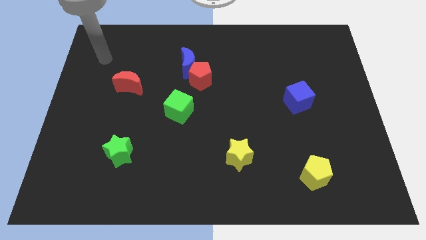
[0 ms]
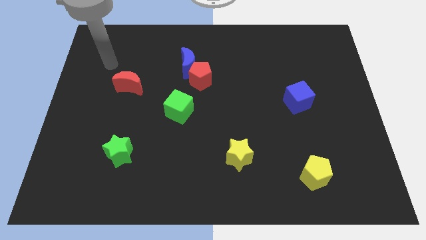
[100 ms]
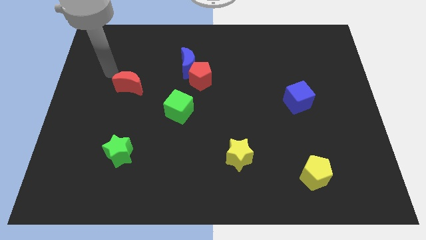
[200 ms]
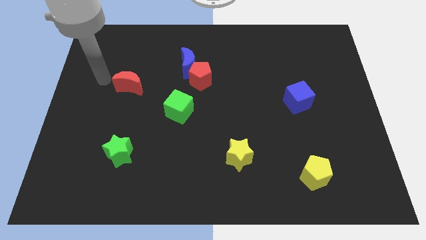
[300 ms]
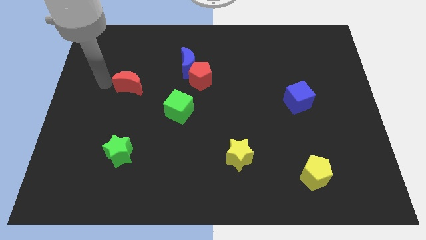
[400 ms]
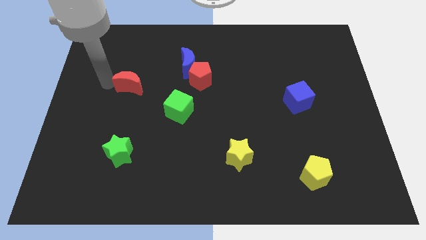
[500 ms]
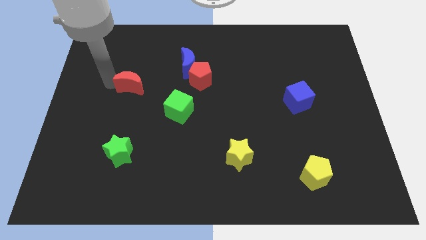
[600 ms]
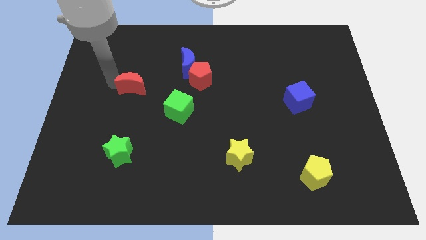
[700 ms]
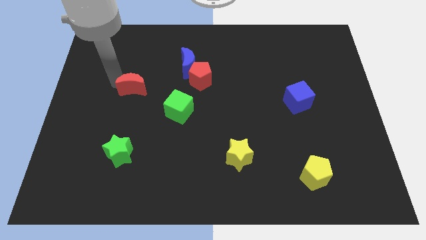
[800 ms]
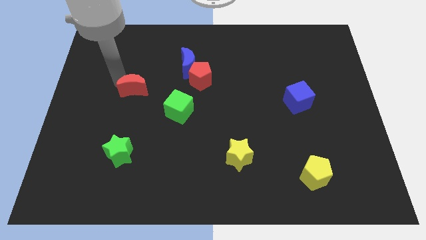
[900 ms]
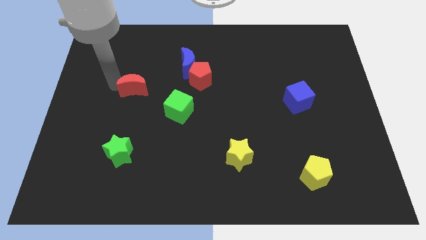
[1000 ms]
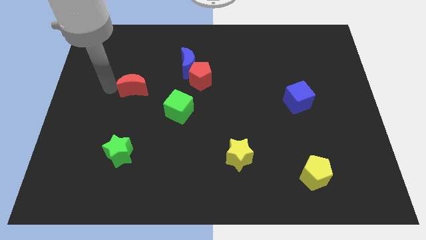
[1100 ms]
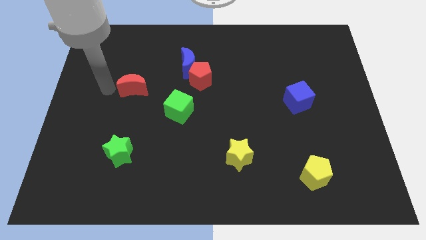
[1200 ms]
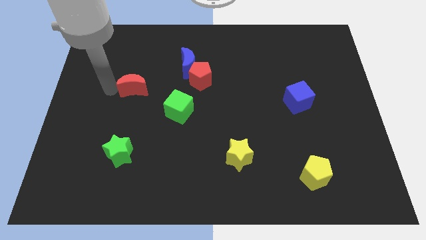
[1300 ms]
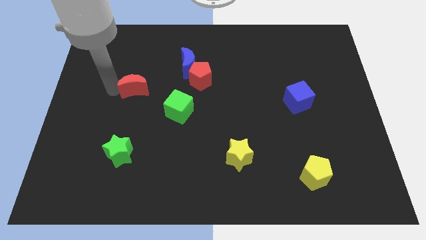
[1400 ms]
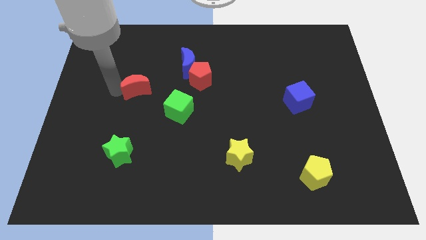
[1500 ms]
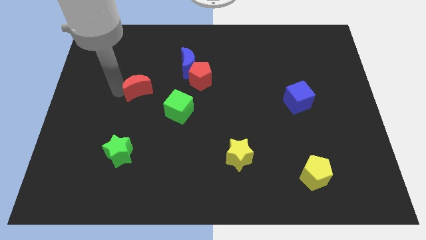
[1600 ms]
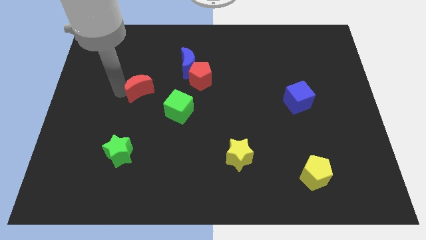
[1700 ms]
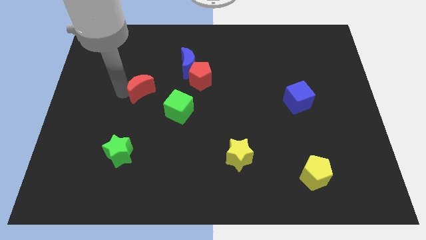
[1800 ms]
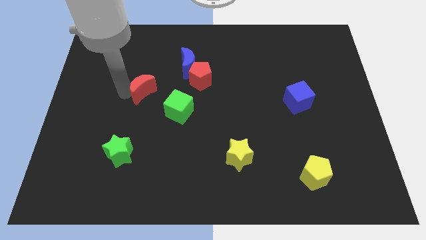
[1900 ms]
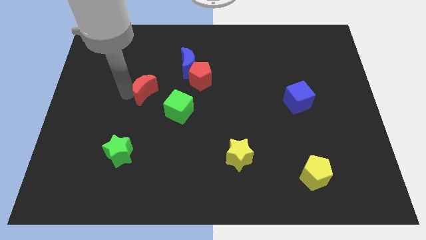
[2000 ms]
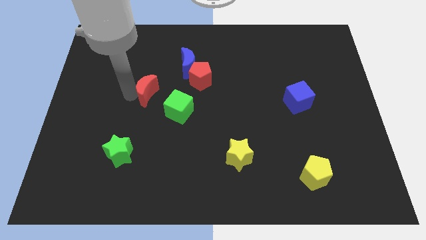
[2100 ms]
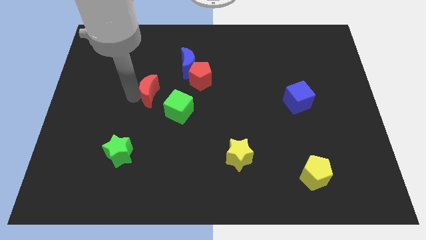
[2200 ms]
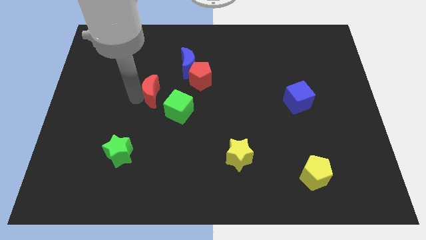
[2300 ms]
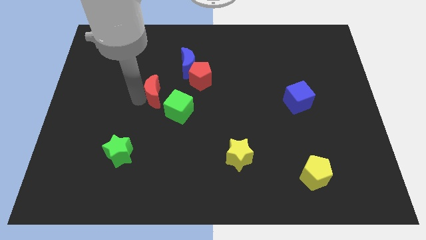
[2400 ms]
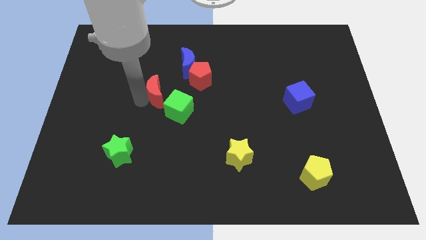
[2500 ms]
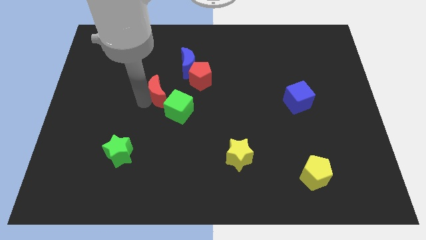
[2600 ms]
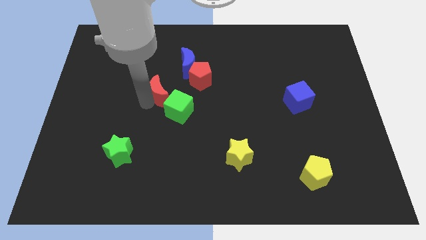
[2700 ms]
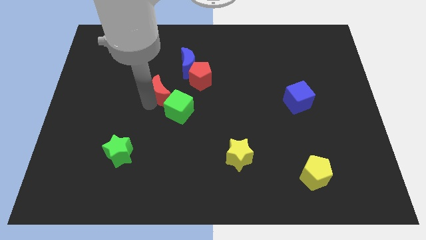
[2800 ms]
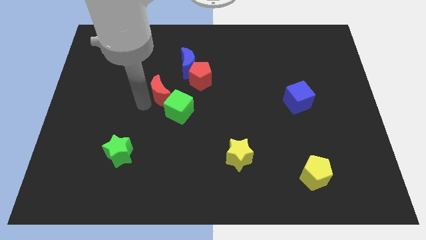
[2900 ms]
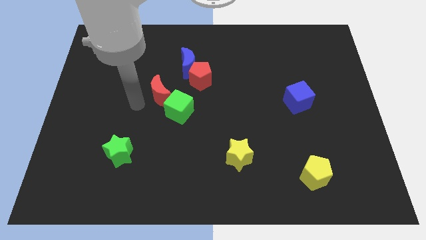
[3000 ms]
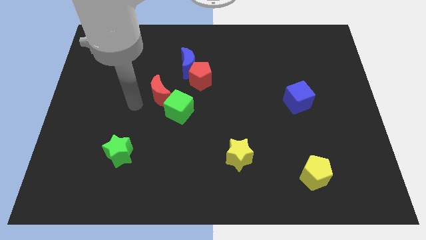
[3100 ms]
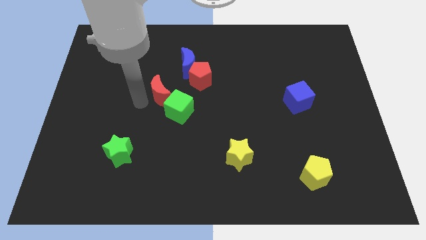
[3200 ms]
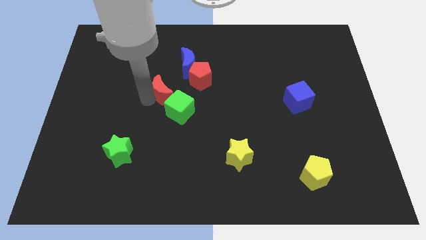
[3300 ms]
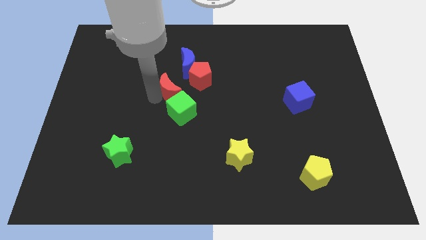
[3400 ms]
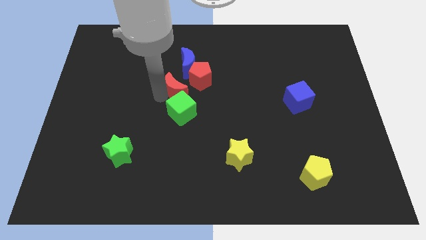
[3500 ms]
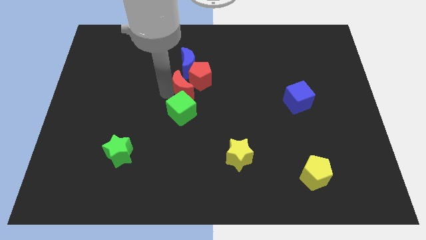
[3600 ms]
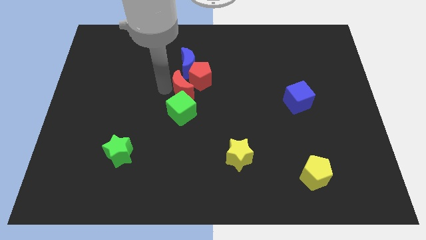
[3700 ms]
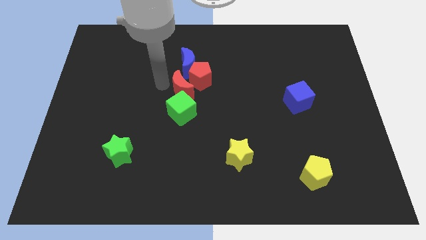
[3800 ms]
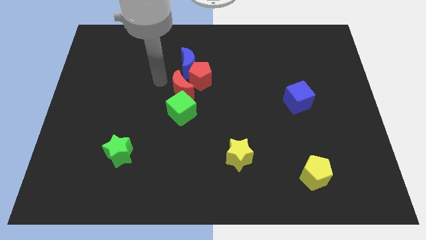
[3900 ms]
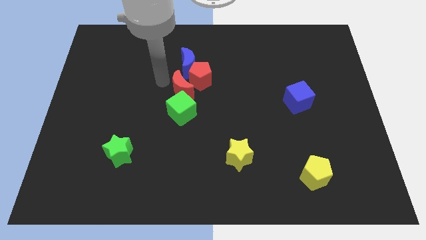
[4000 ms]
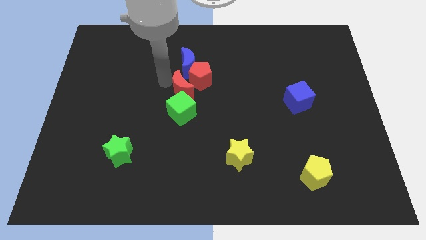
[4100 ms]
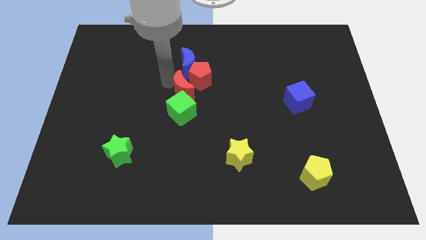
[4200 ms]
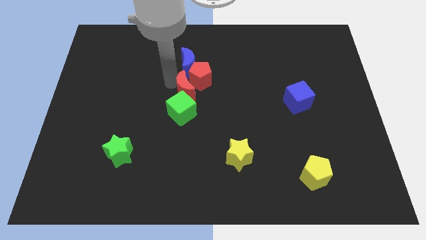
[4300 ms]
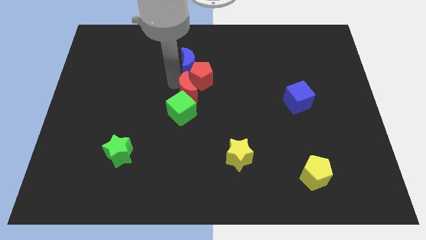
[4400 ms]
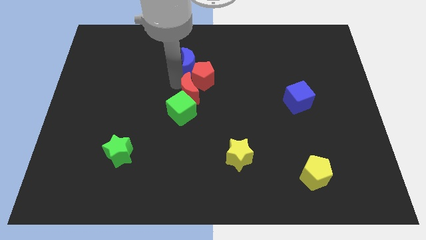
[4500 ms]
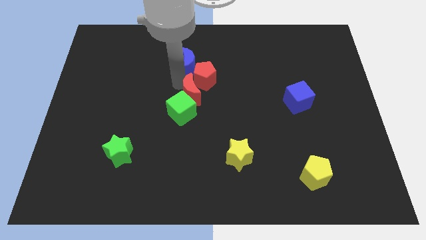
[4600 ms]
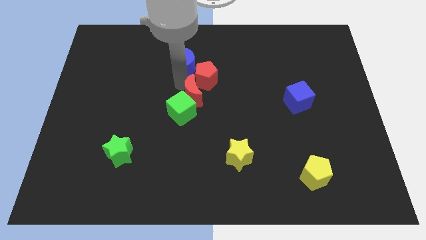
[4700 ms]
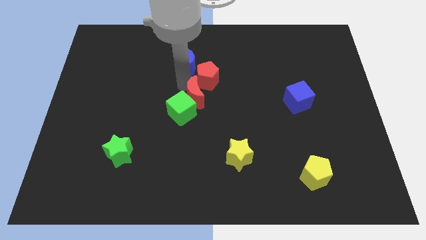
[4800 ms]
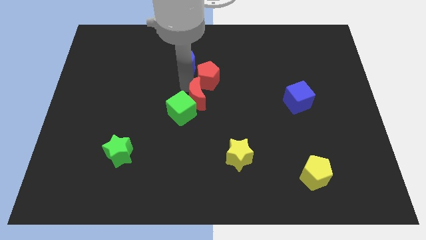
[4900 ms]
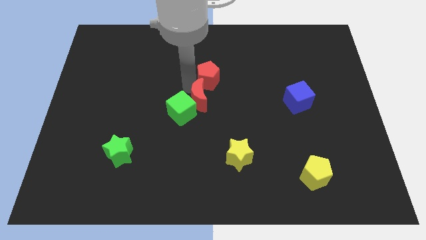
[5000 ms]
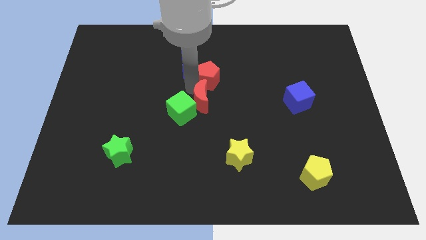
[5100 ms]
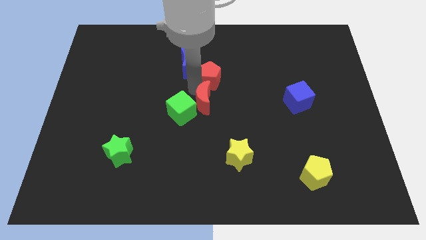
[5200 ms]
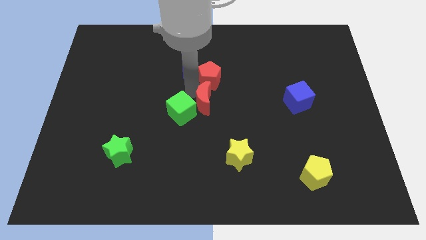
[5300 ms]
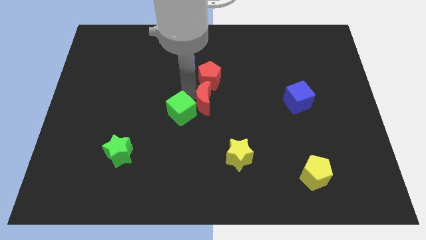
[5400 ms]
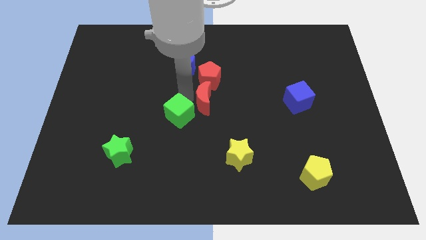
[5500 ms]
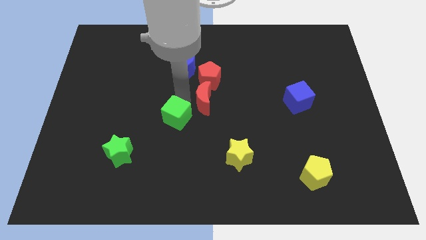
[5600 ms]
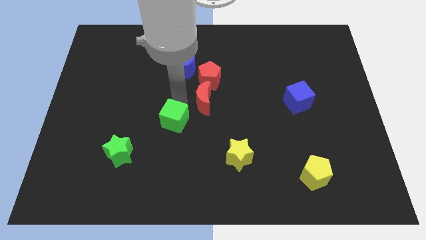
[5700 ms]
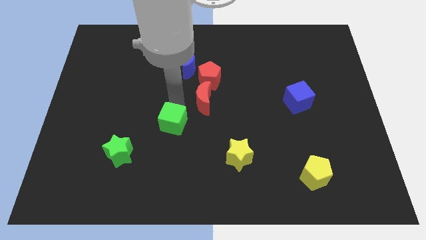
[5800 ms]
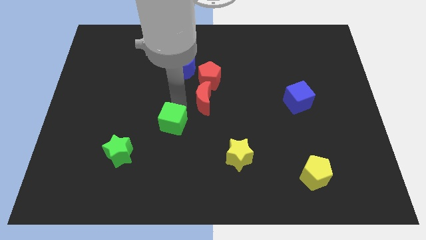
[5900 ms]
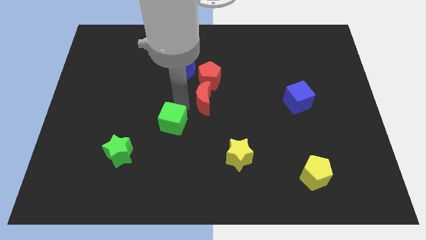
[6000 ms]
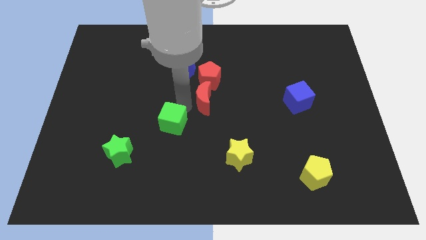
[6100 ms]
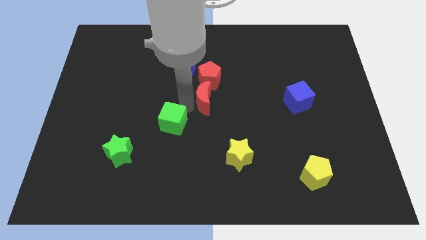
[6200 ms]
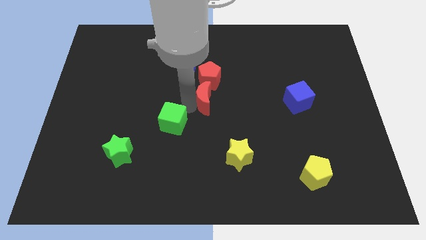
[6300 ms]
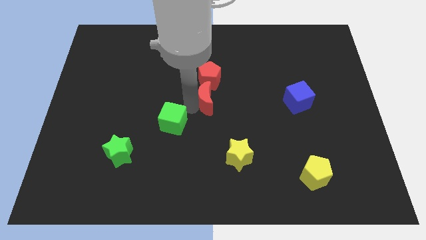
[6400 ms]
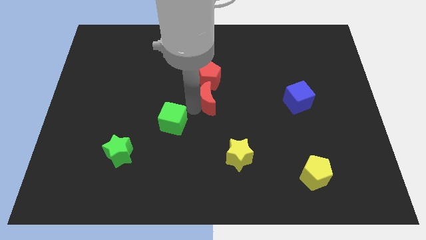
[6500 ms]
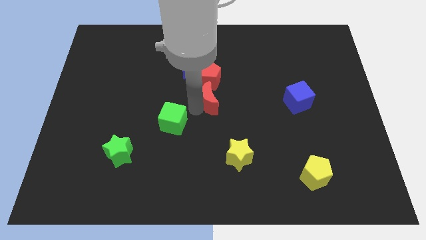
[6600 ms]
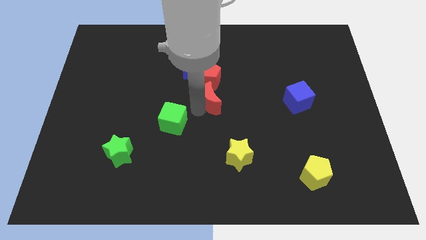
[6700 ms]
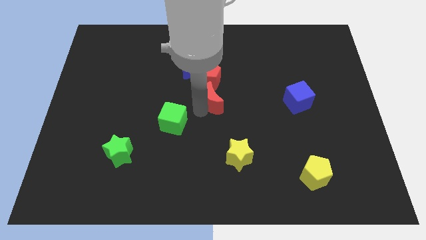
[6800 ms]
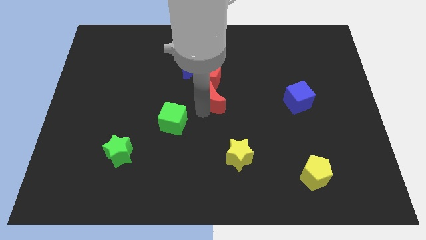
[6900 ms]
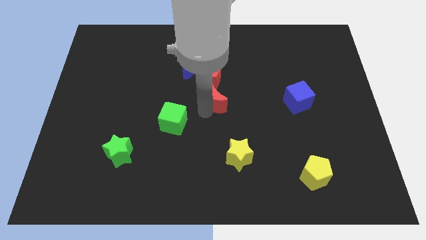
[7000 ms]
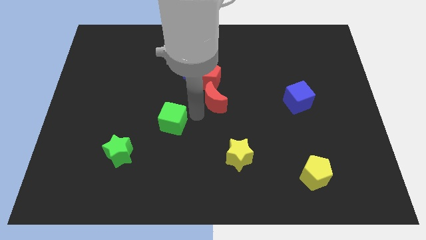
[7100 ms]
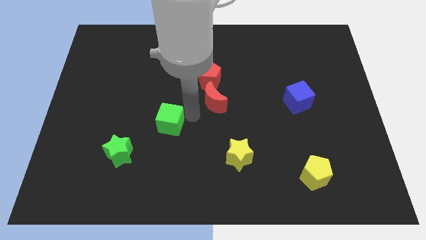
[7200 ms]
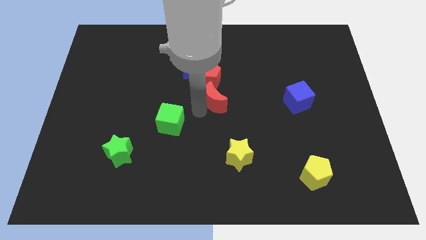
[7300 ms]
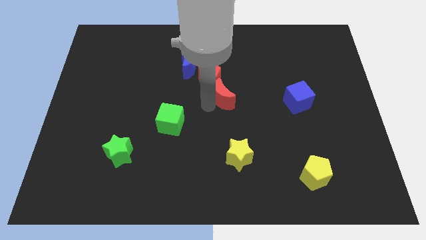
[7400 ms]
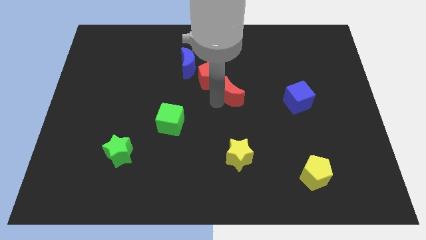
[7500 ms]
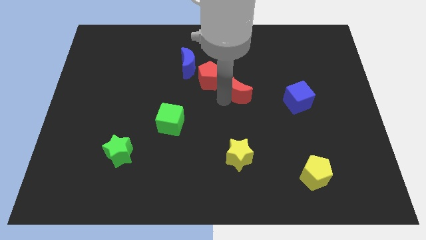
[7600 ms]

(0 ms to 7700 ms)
slide the red moon right of the red pentagon
